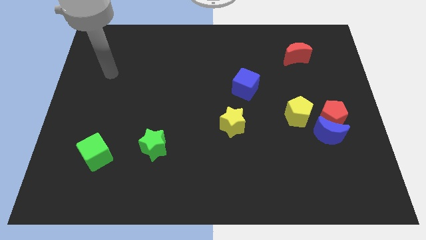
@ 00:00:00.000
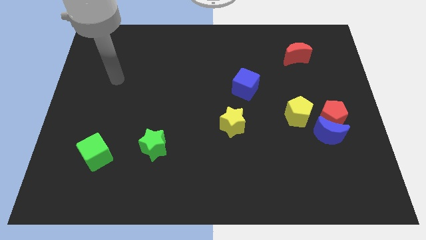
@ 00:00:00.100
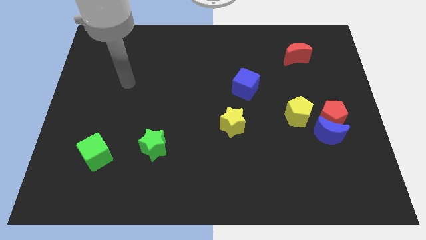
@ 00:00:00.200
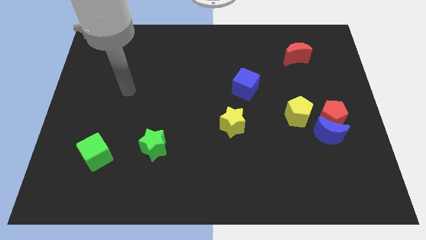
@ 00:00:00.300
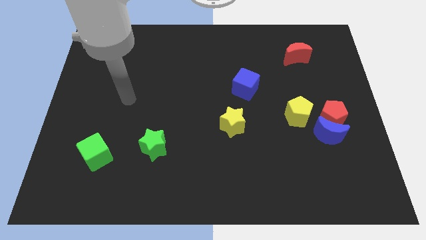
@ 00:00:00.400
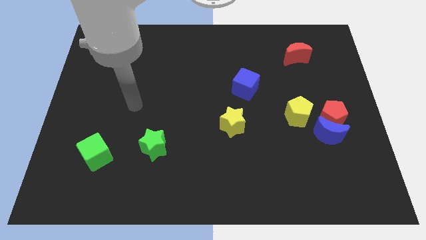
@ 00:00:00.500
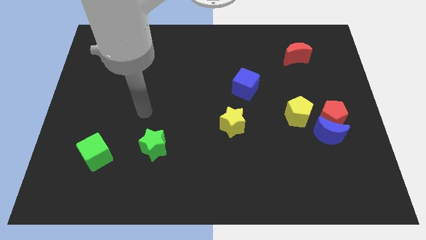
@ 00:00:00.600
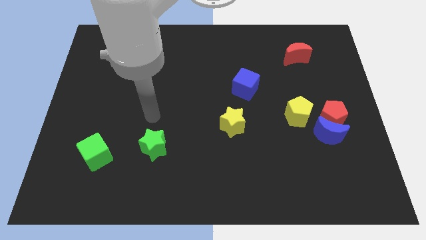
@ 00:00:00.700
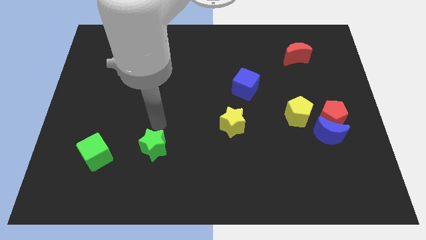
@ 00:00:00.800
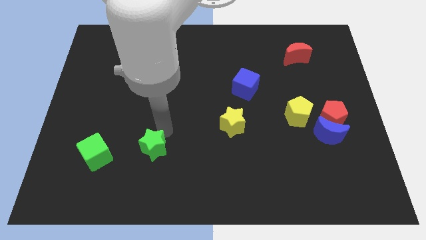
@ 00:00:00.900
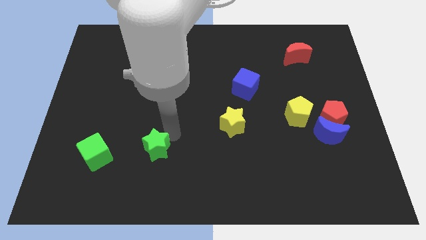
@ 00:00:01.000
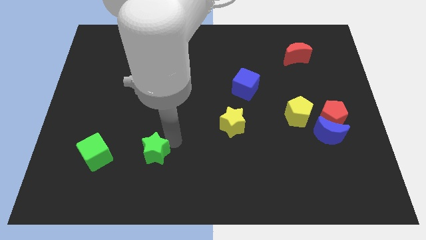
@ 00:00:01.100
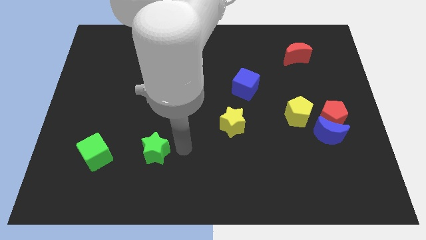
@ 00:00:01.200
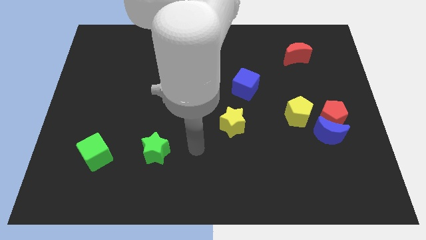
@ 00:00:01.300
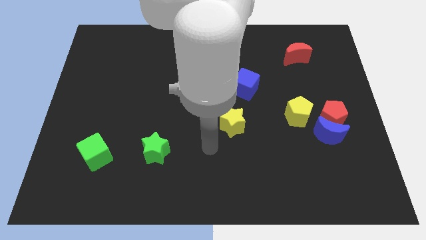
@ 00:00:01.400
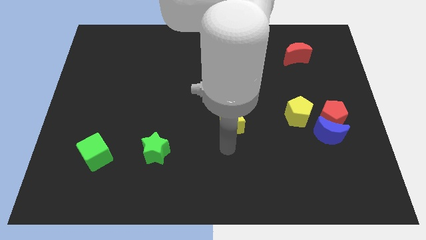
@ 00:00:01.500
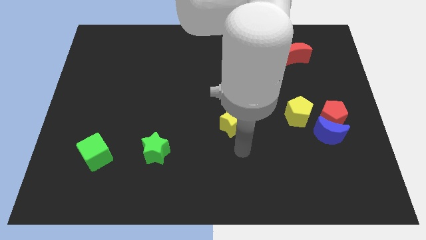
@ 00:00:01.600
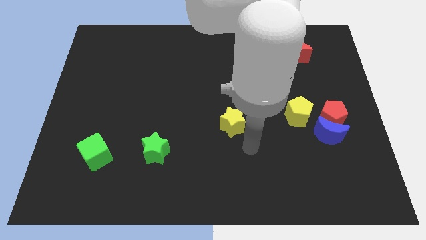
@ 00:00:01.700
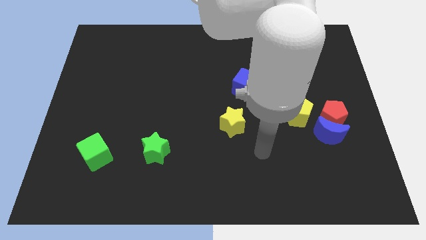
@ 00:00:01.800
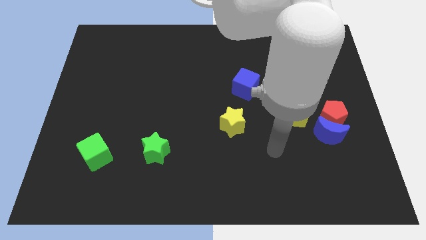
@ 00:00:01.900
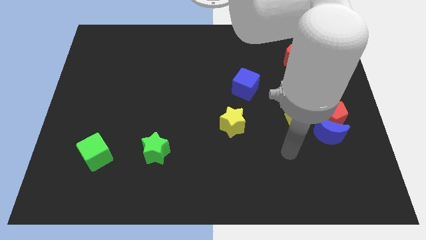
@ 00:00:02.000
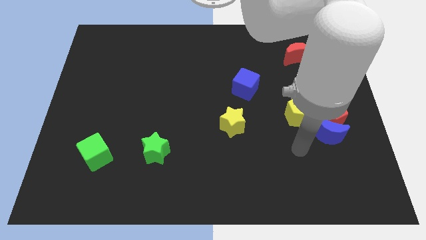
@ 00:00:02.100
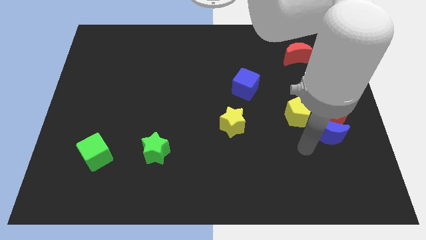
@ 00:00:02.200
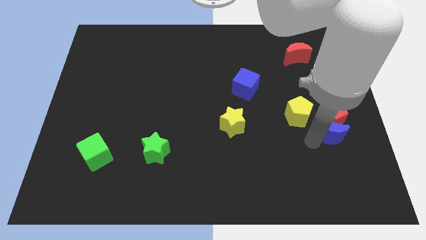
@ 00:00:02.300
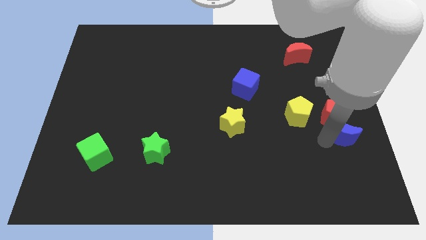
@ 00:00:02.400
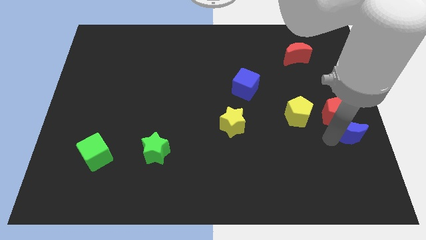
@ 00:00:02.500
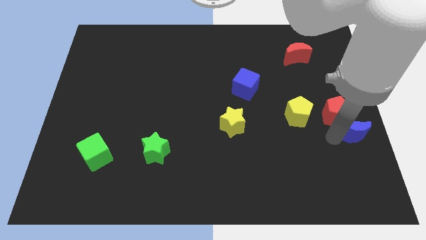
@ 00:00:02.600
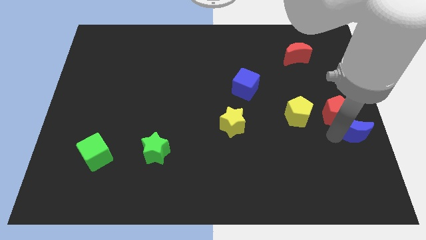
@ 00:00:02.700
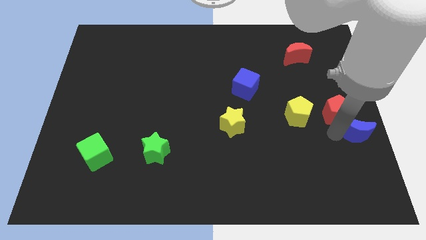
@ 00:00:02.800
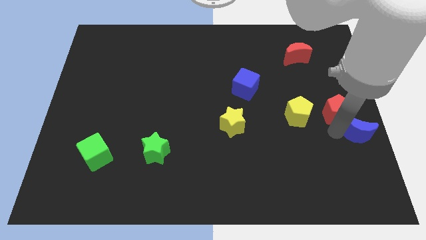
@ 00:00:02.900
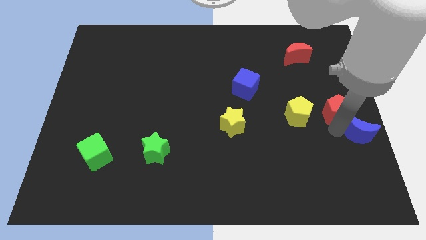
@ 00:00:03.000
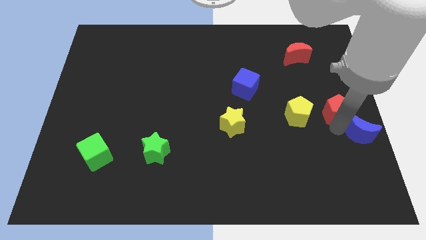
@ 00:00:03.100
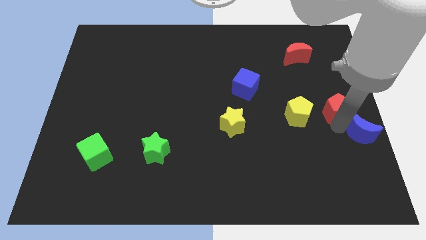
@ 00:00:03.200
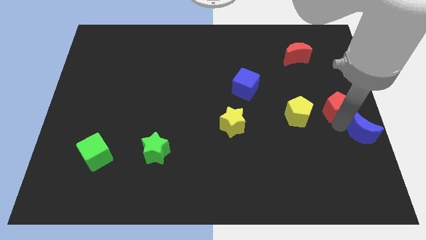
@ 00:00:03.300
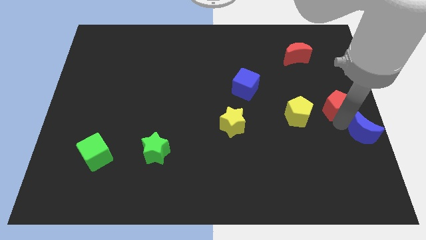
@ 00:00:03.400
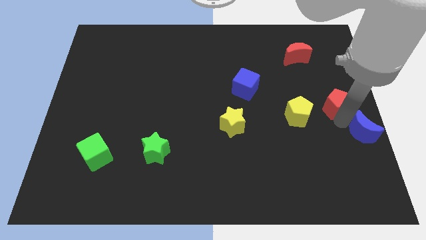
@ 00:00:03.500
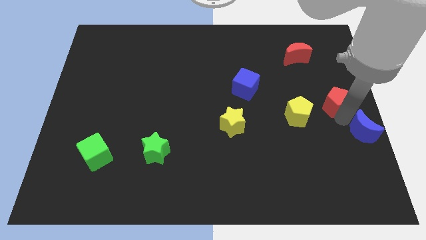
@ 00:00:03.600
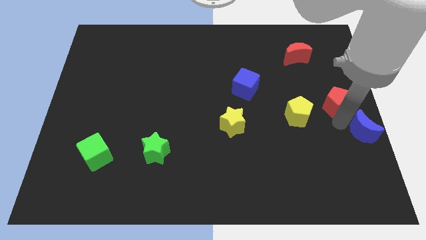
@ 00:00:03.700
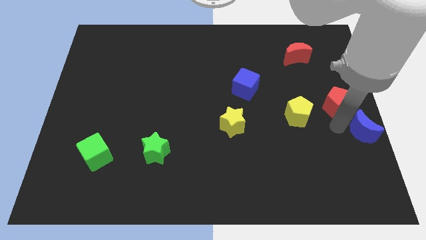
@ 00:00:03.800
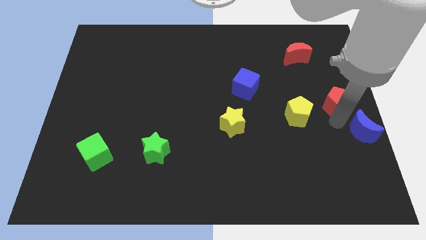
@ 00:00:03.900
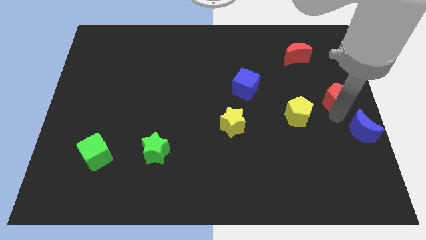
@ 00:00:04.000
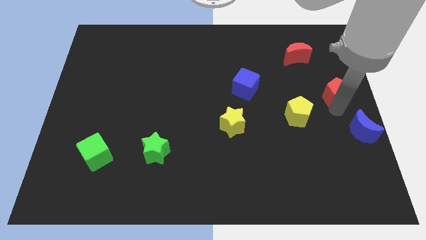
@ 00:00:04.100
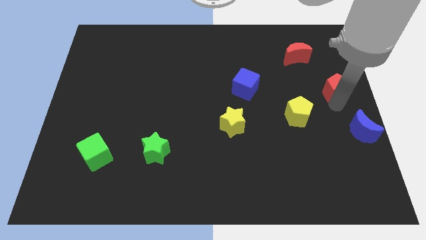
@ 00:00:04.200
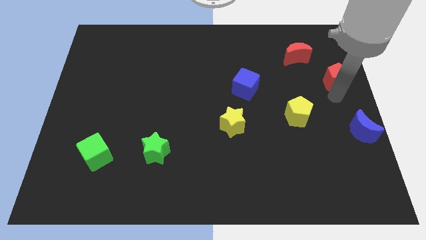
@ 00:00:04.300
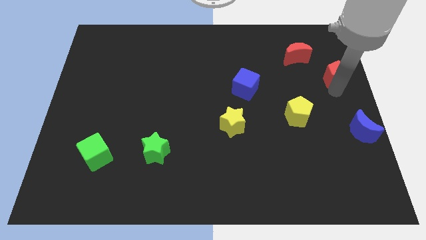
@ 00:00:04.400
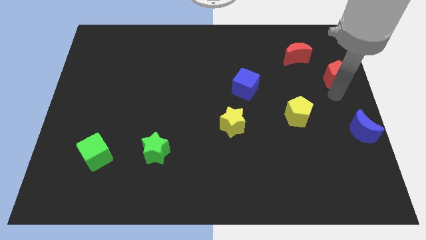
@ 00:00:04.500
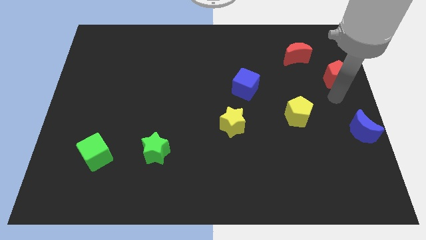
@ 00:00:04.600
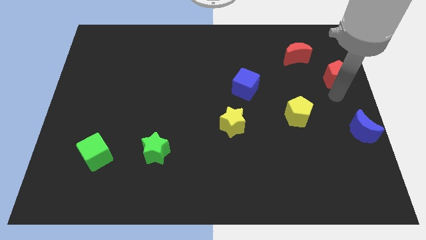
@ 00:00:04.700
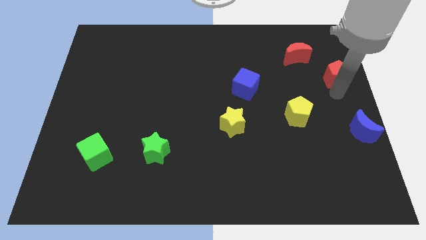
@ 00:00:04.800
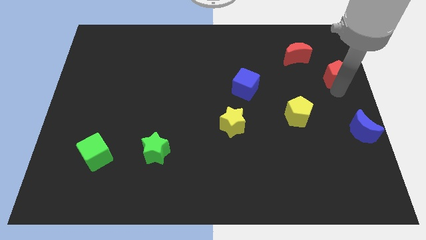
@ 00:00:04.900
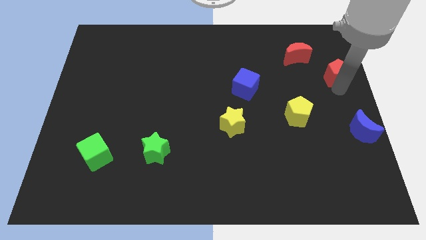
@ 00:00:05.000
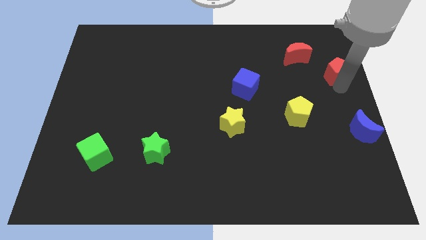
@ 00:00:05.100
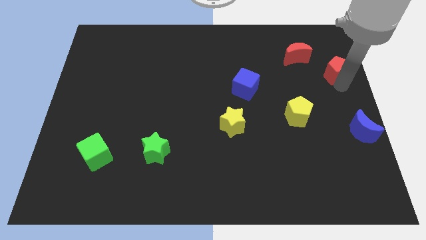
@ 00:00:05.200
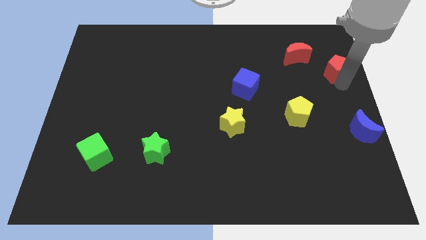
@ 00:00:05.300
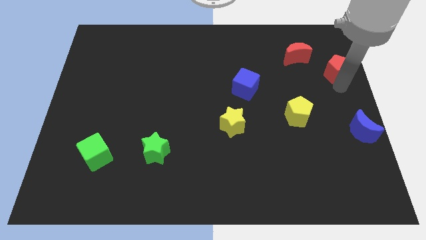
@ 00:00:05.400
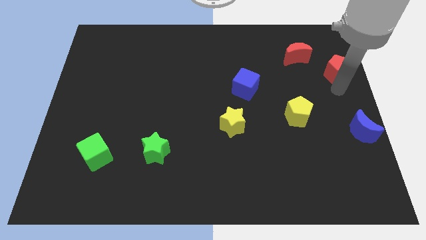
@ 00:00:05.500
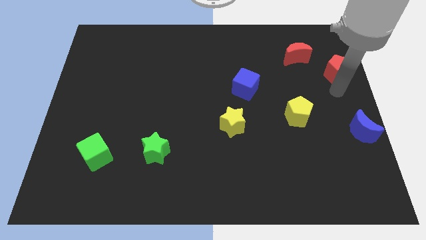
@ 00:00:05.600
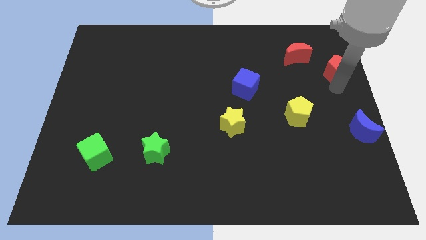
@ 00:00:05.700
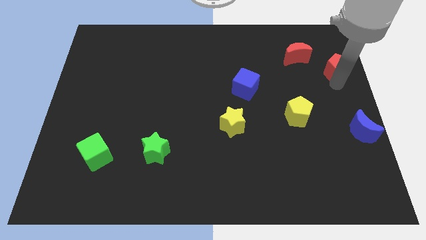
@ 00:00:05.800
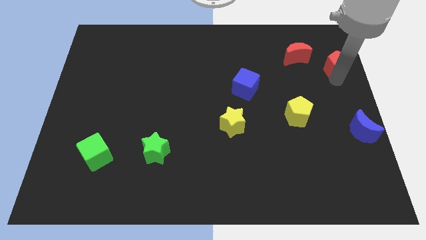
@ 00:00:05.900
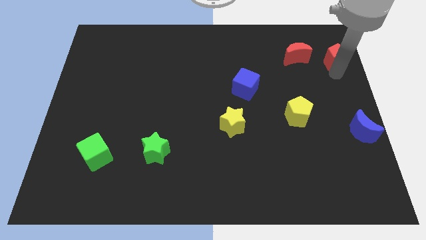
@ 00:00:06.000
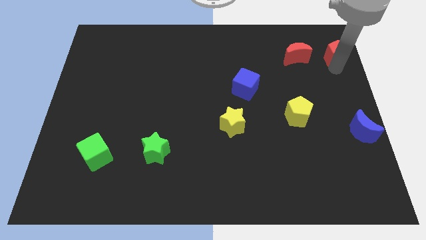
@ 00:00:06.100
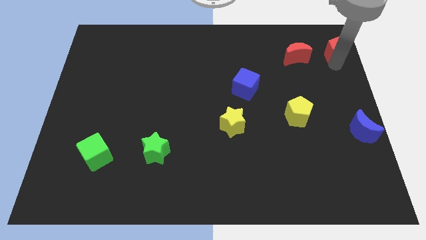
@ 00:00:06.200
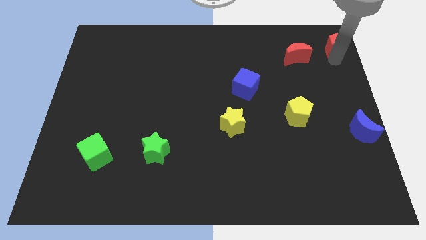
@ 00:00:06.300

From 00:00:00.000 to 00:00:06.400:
slide the red pentagon to the top right corner
